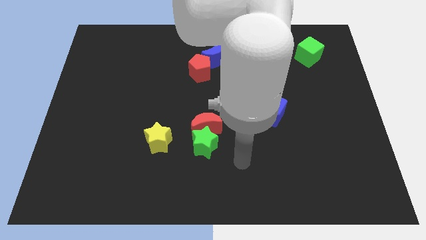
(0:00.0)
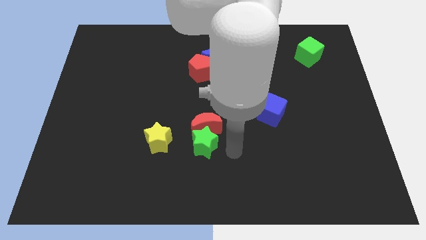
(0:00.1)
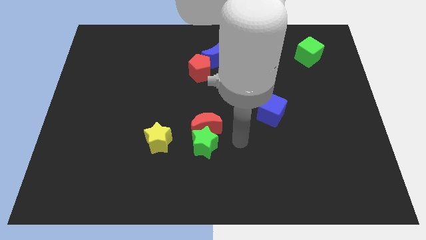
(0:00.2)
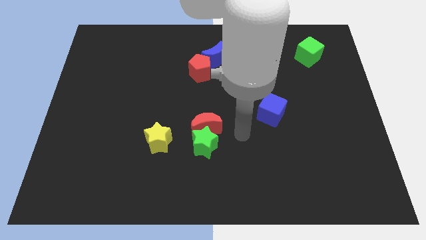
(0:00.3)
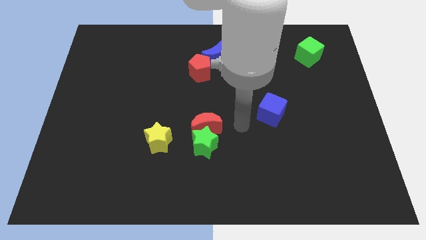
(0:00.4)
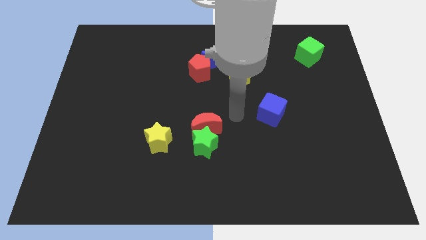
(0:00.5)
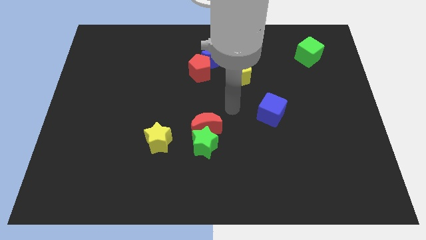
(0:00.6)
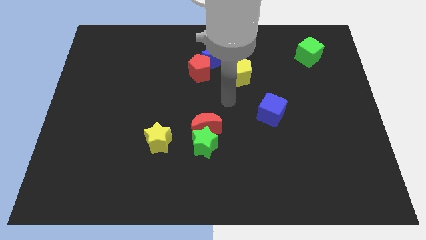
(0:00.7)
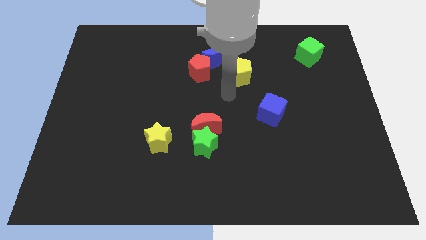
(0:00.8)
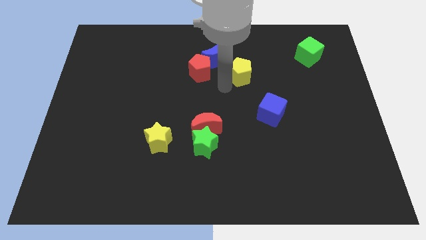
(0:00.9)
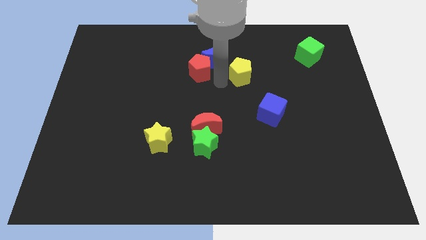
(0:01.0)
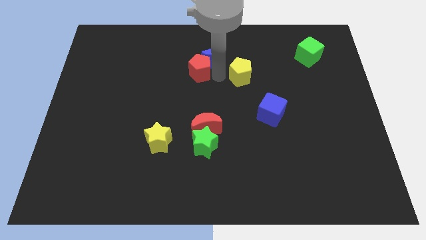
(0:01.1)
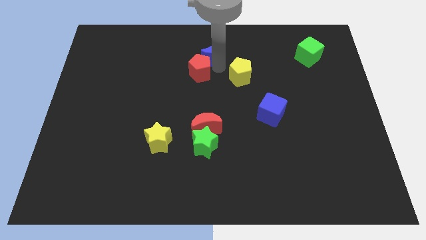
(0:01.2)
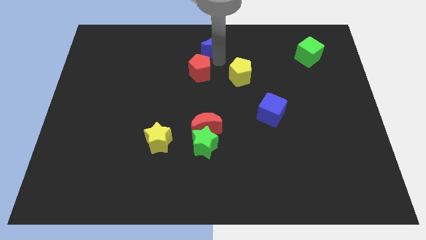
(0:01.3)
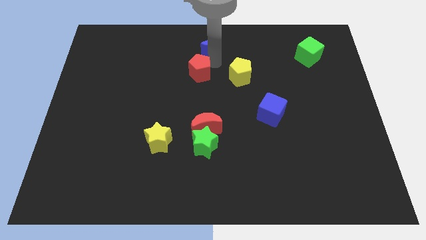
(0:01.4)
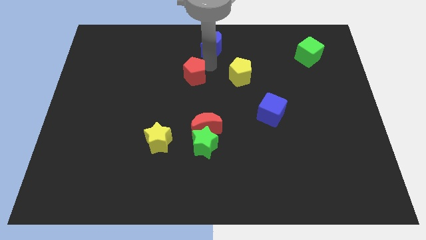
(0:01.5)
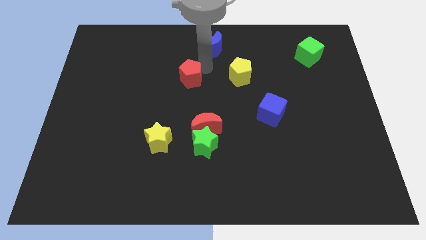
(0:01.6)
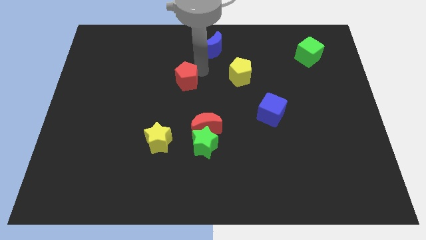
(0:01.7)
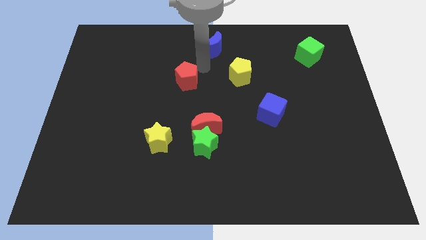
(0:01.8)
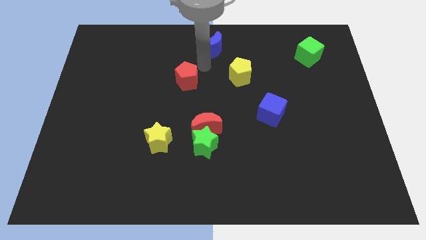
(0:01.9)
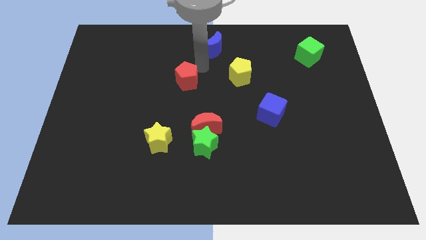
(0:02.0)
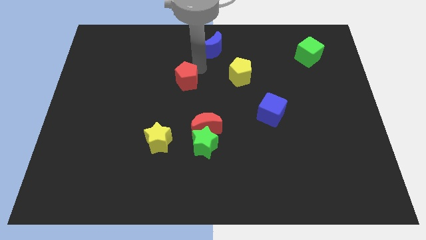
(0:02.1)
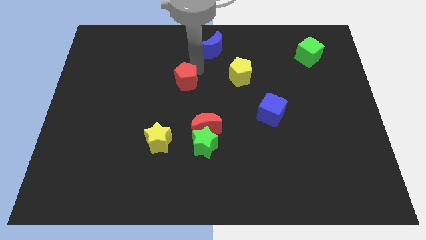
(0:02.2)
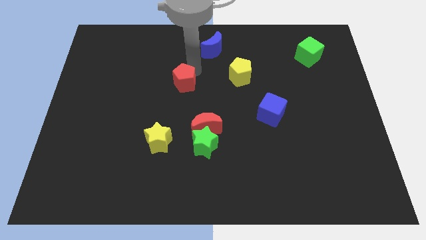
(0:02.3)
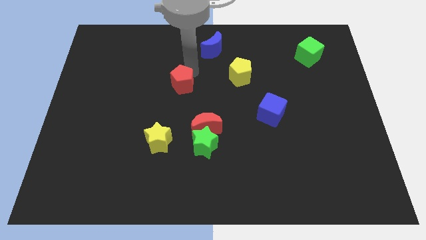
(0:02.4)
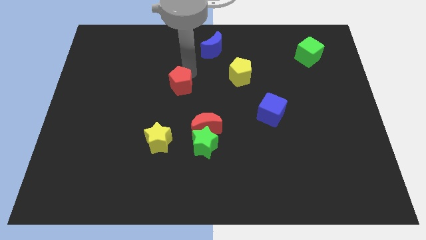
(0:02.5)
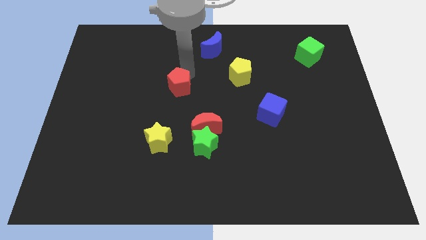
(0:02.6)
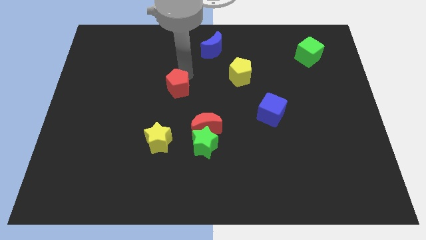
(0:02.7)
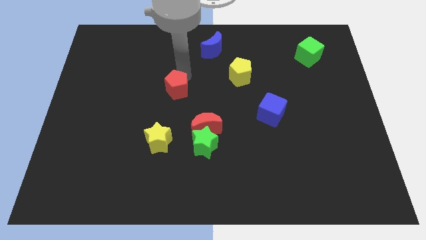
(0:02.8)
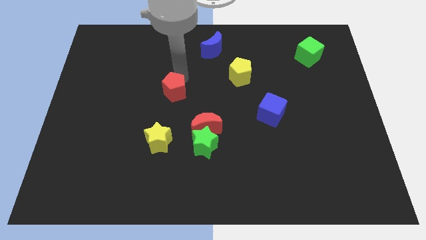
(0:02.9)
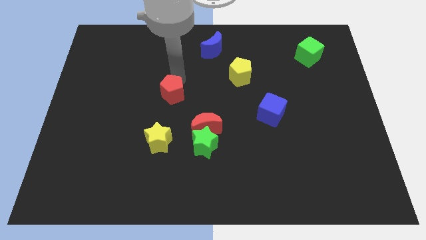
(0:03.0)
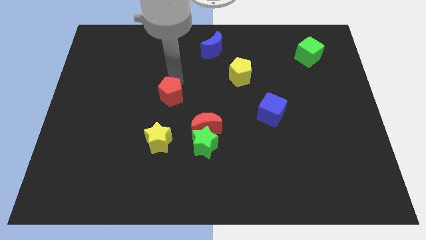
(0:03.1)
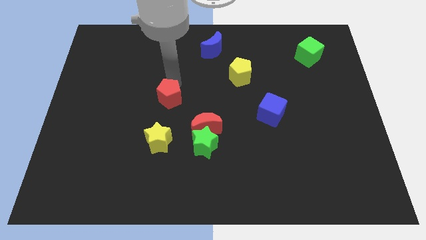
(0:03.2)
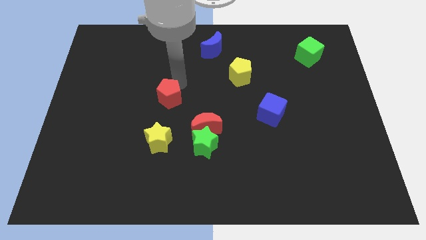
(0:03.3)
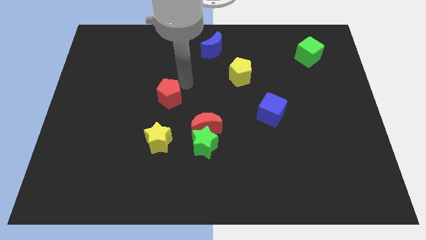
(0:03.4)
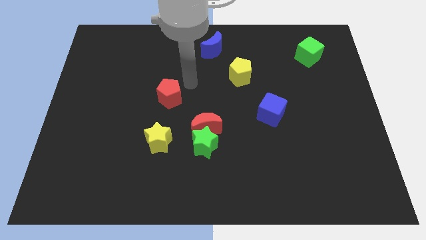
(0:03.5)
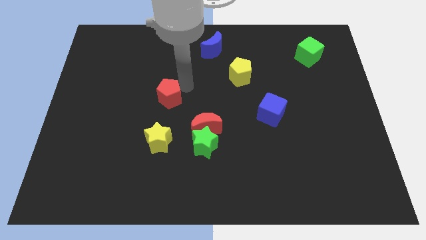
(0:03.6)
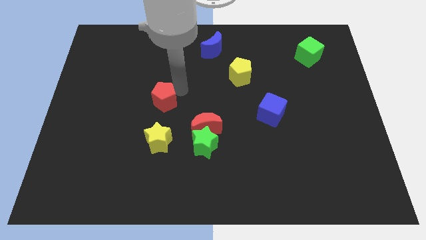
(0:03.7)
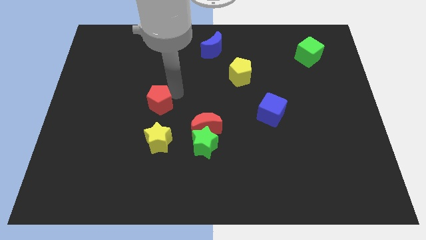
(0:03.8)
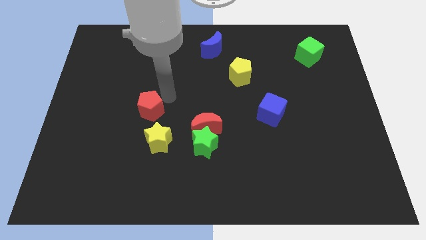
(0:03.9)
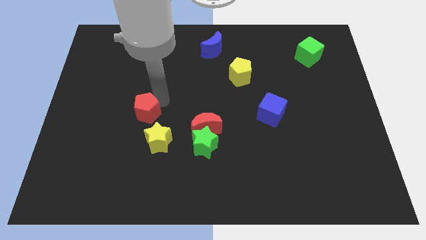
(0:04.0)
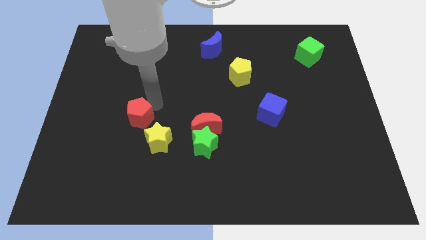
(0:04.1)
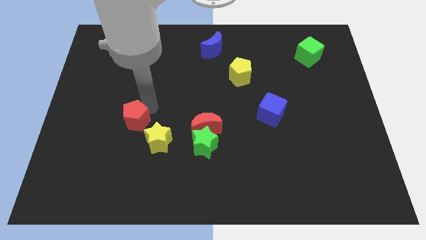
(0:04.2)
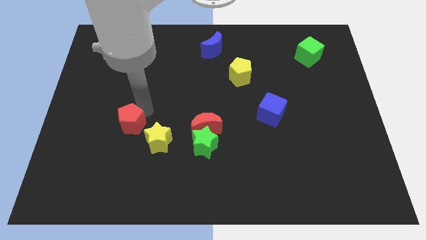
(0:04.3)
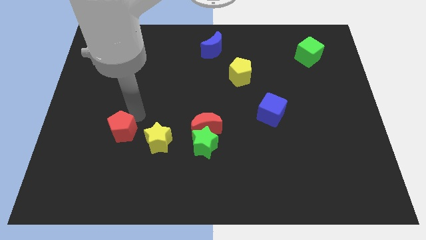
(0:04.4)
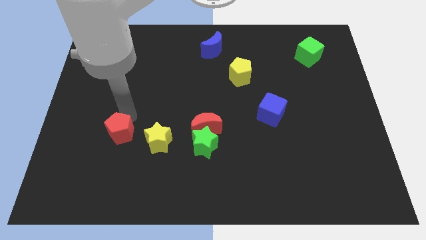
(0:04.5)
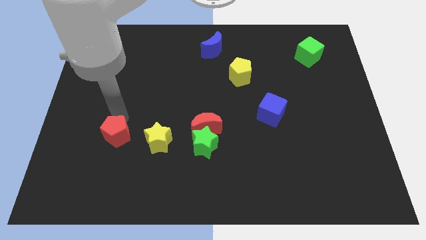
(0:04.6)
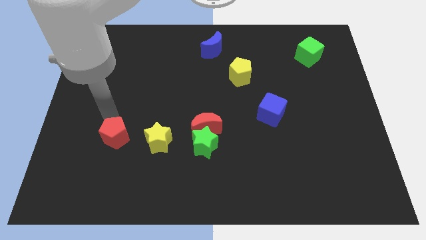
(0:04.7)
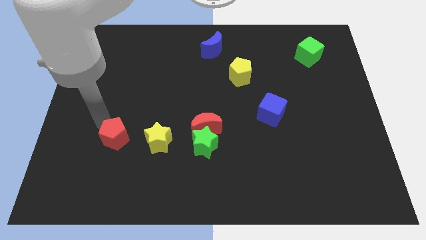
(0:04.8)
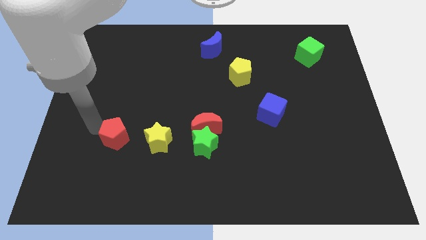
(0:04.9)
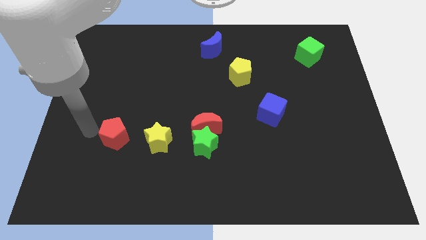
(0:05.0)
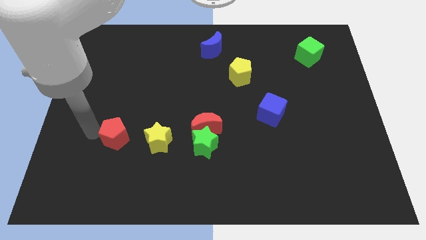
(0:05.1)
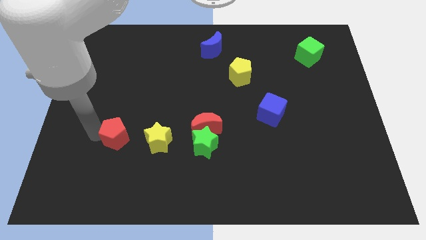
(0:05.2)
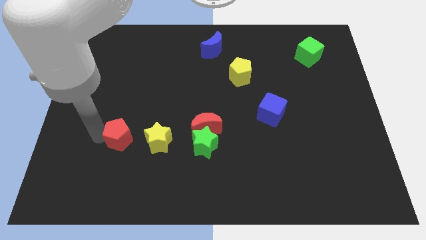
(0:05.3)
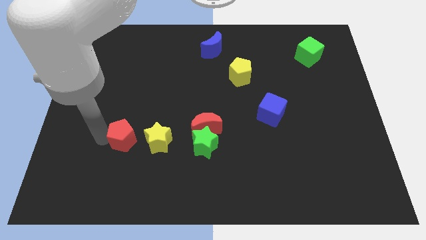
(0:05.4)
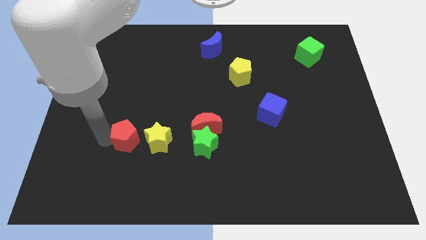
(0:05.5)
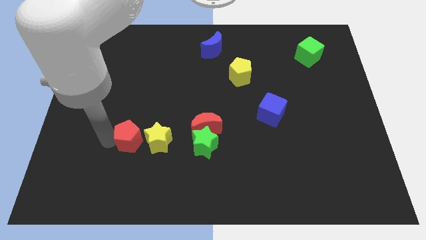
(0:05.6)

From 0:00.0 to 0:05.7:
put the red pentagon to the left of the green star

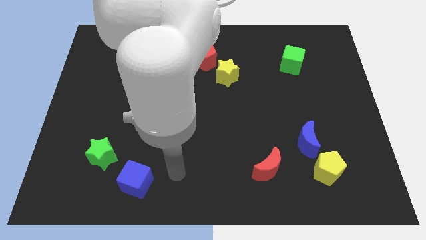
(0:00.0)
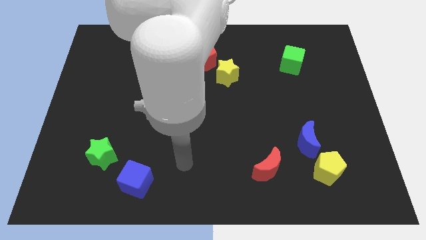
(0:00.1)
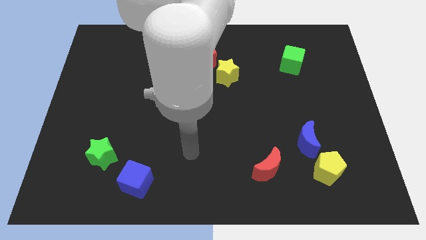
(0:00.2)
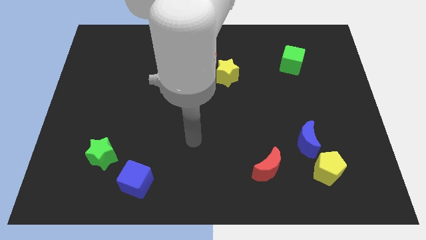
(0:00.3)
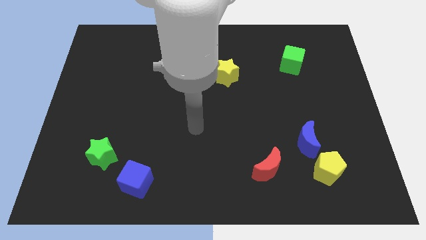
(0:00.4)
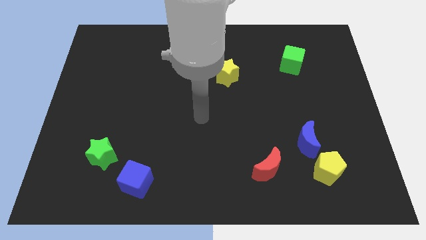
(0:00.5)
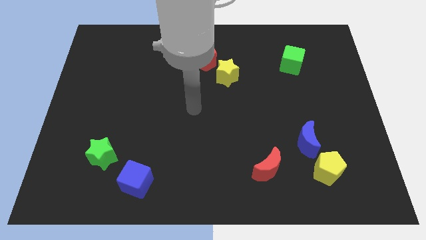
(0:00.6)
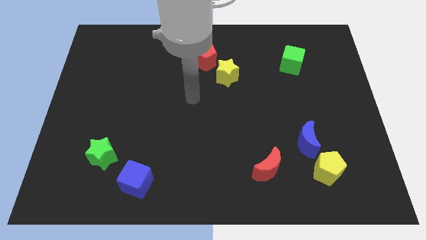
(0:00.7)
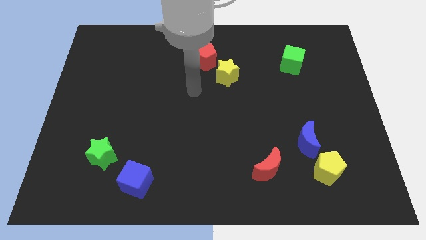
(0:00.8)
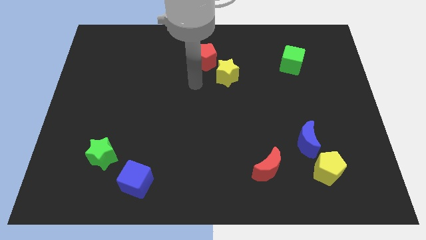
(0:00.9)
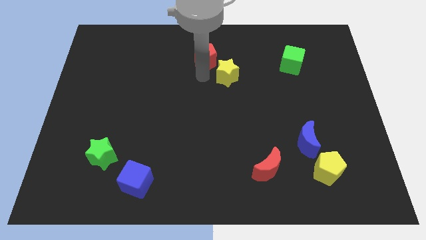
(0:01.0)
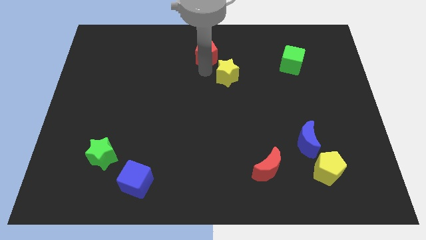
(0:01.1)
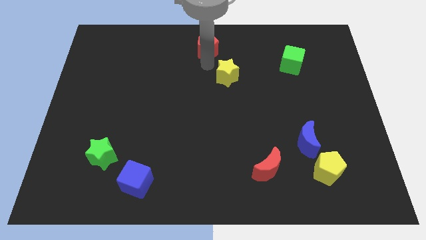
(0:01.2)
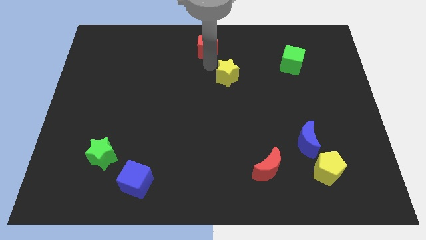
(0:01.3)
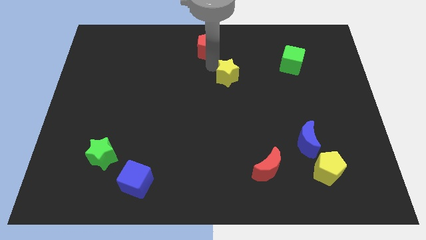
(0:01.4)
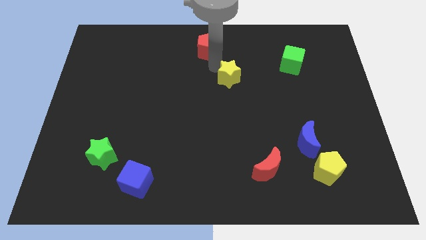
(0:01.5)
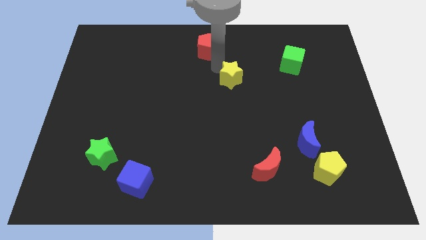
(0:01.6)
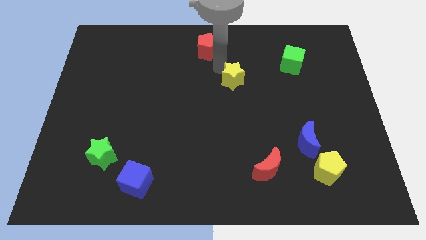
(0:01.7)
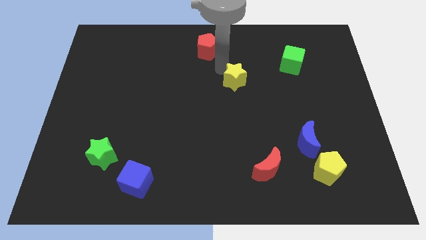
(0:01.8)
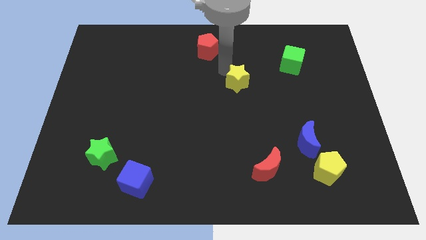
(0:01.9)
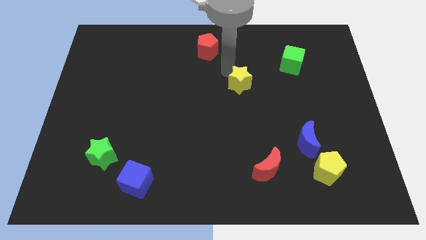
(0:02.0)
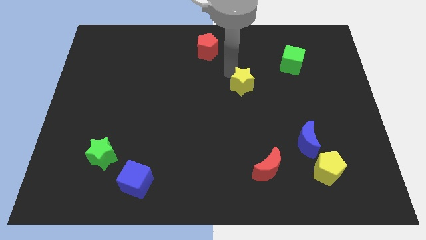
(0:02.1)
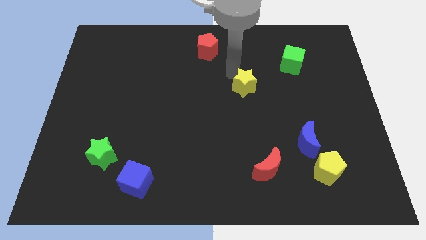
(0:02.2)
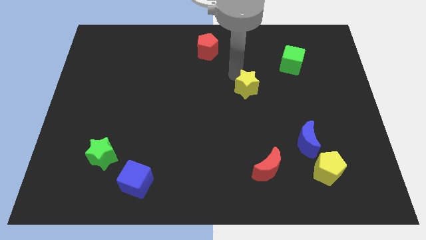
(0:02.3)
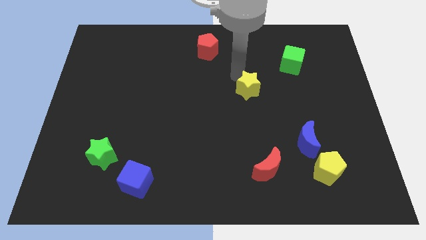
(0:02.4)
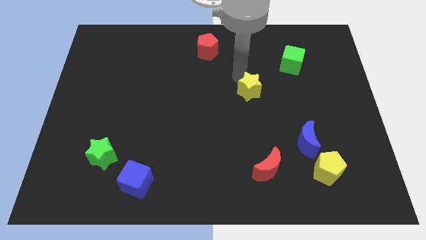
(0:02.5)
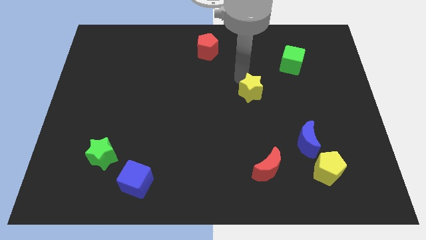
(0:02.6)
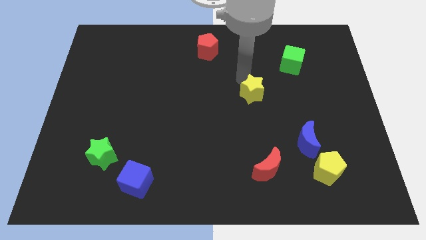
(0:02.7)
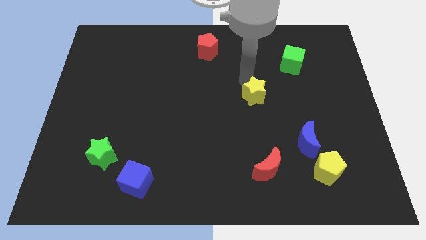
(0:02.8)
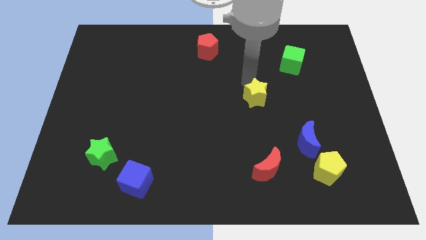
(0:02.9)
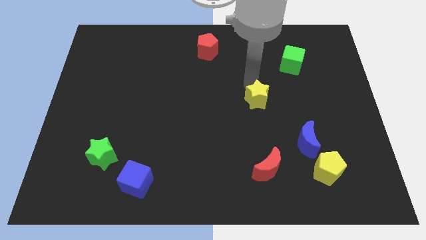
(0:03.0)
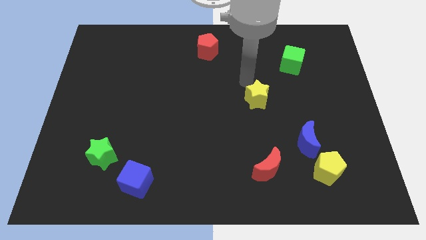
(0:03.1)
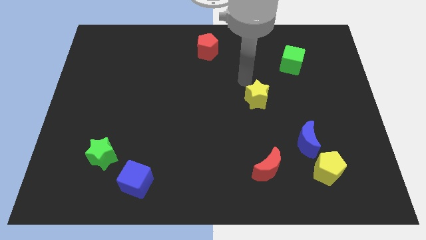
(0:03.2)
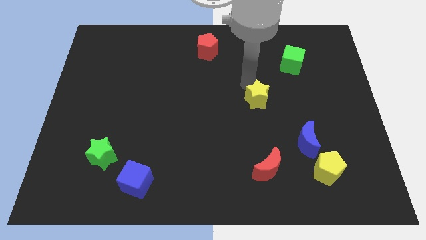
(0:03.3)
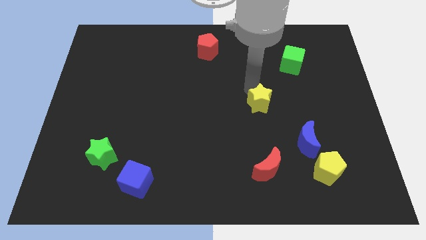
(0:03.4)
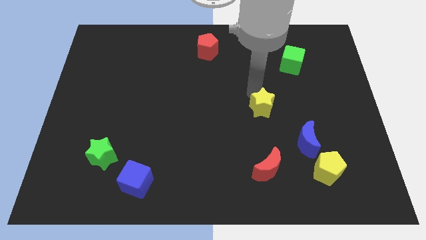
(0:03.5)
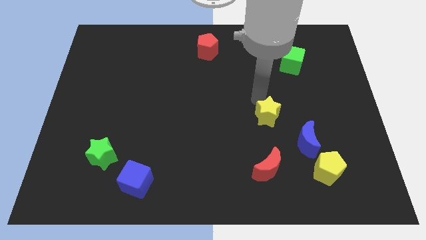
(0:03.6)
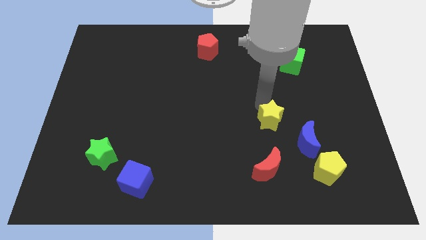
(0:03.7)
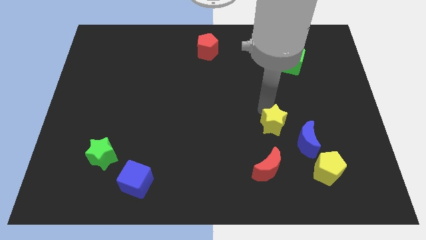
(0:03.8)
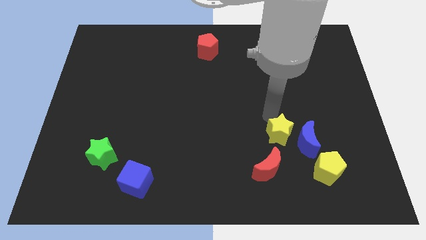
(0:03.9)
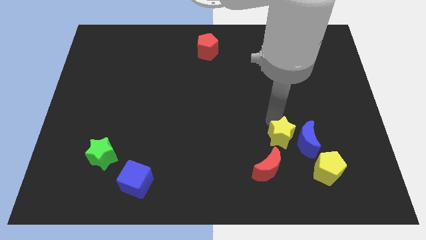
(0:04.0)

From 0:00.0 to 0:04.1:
push the yellow star diagonally down and to the left of the blue moon
